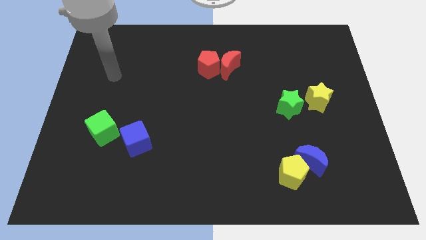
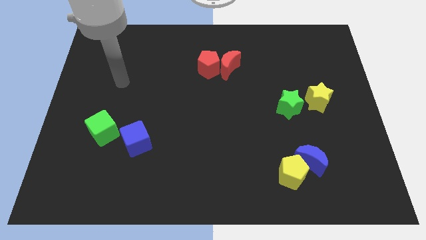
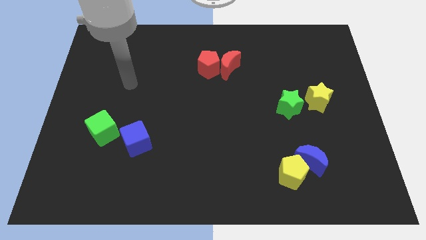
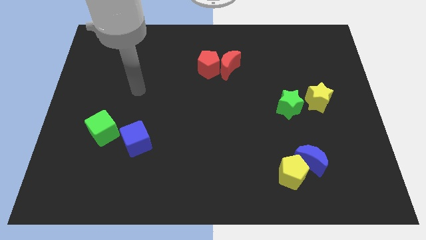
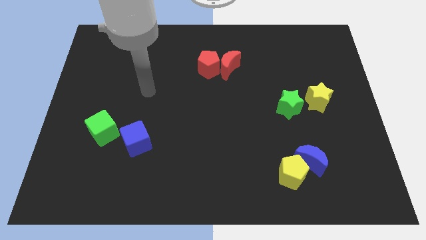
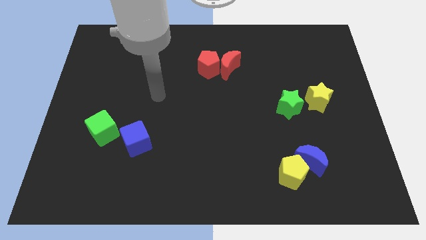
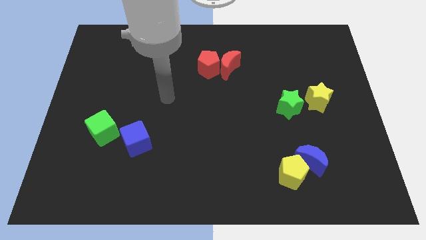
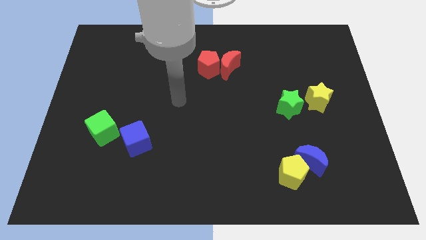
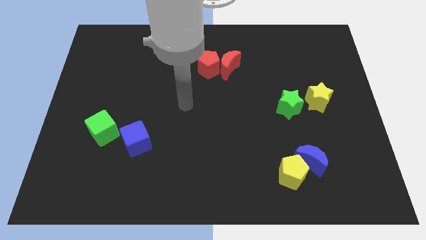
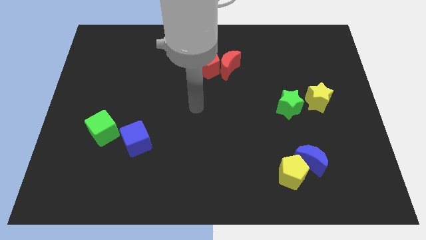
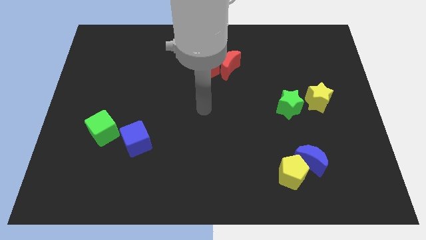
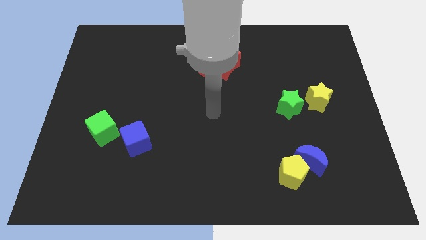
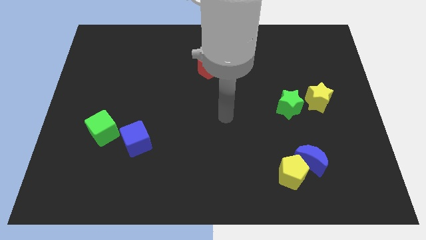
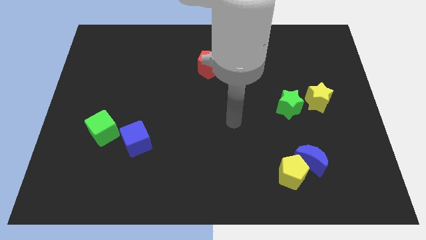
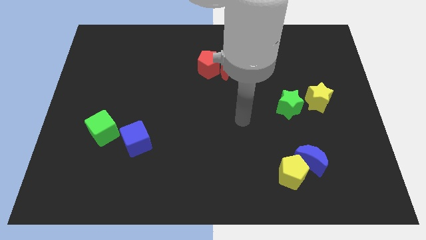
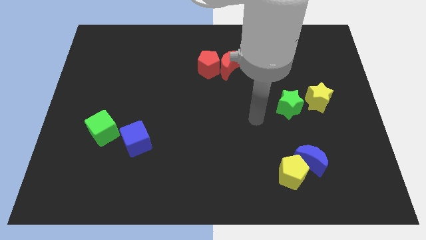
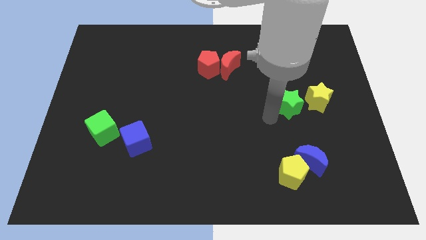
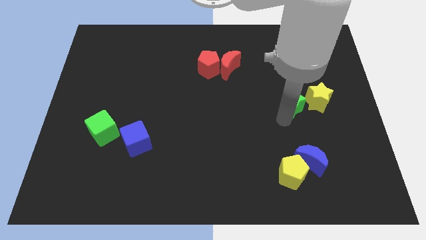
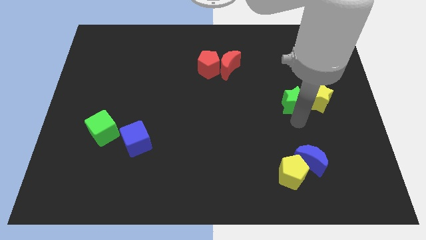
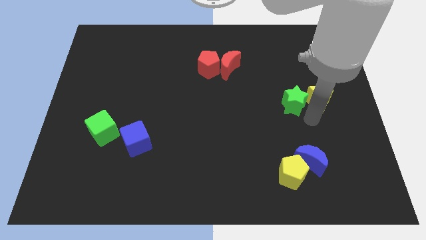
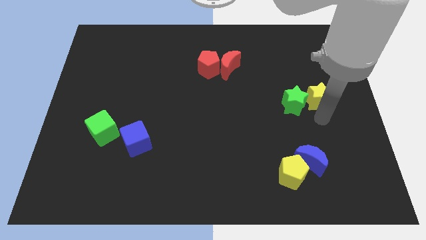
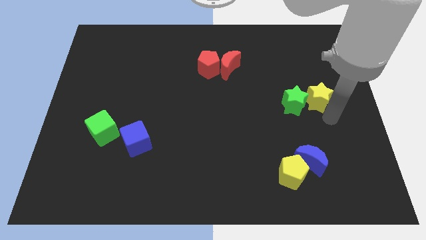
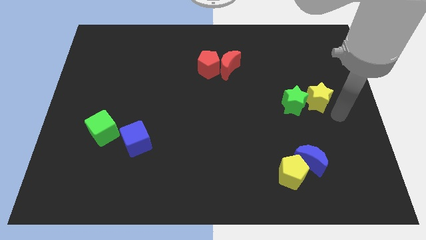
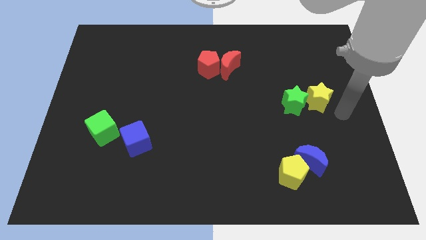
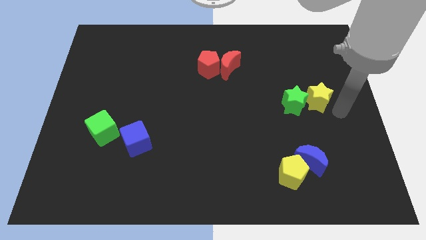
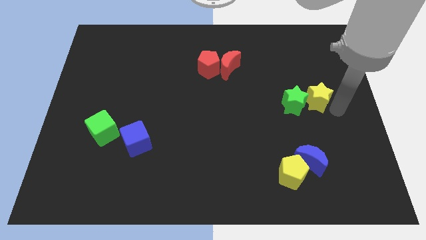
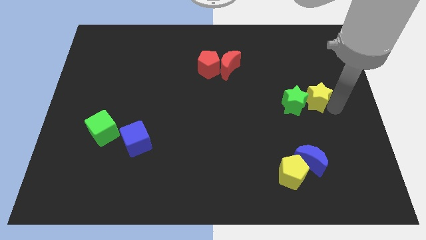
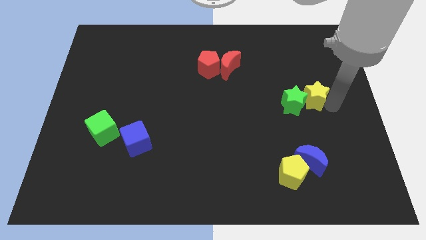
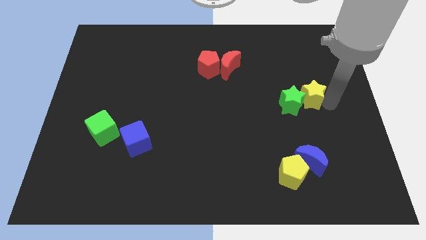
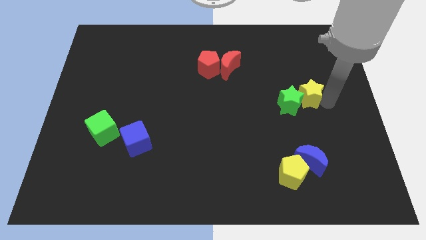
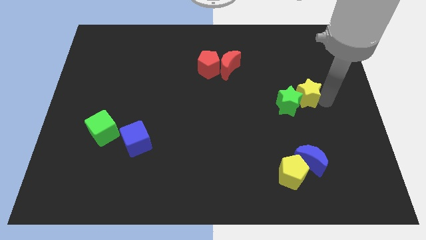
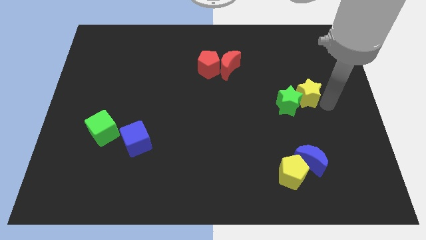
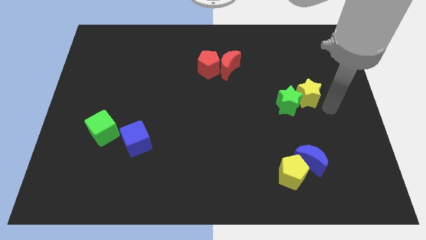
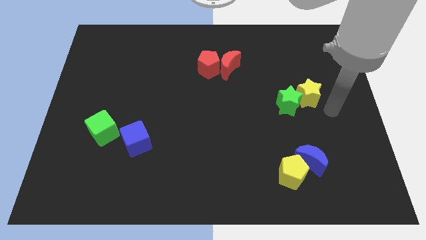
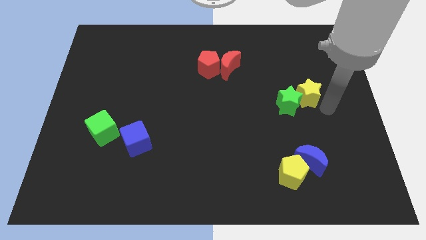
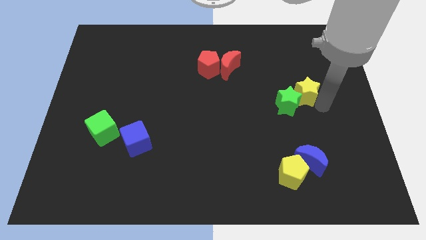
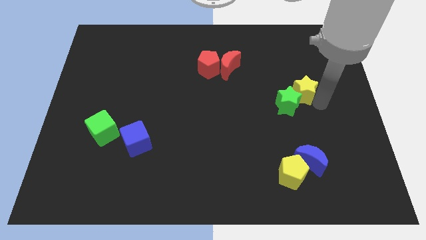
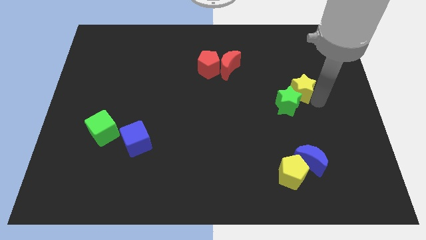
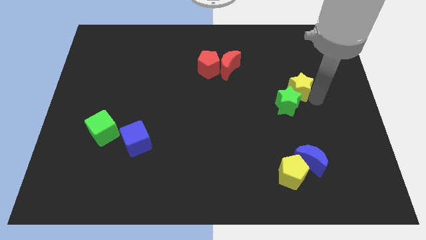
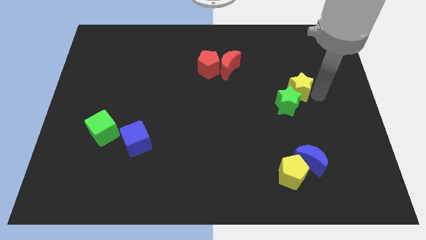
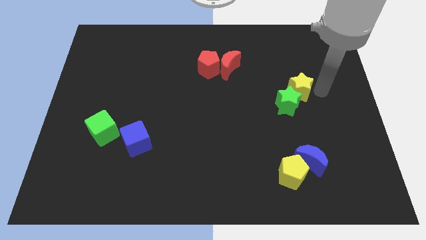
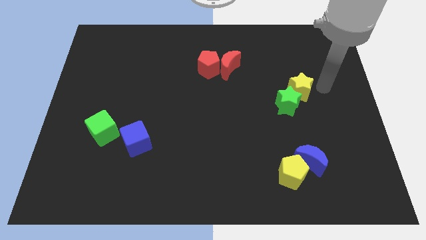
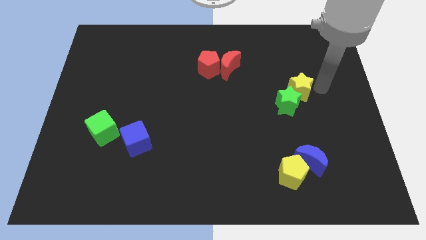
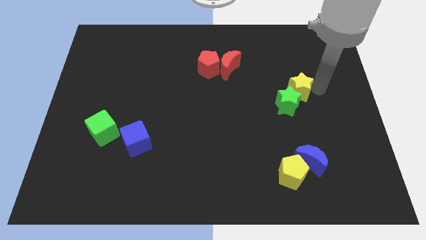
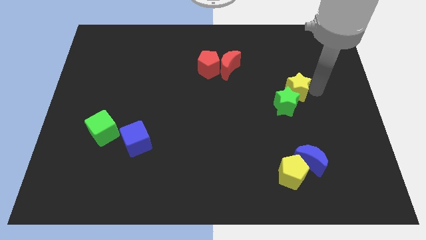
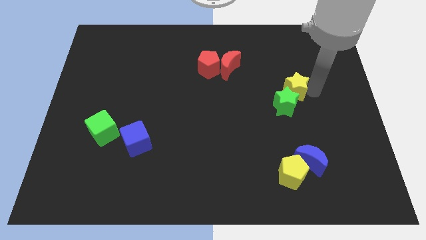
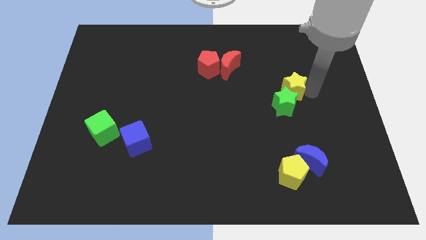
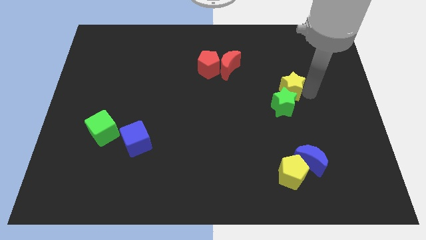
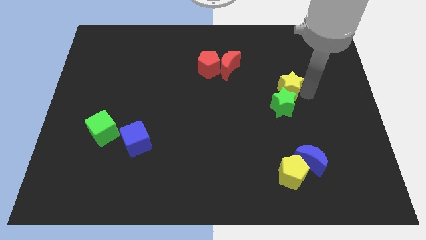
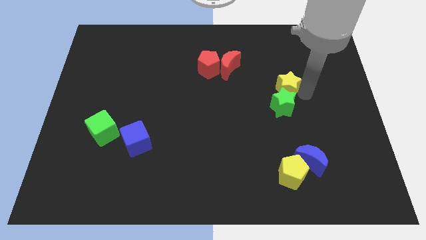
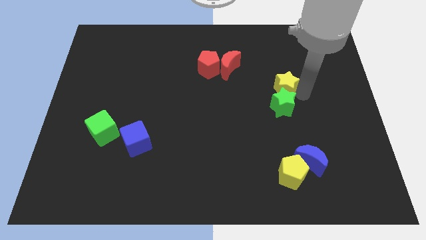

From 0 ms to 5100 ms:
push the yellow star to the left a bit

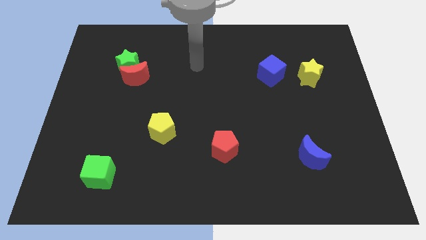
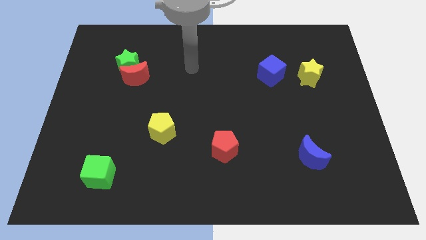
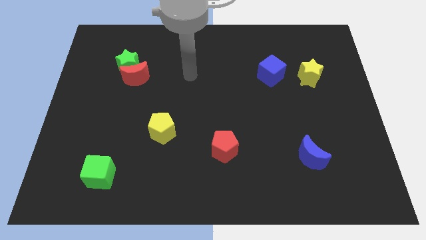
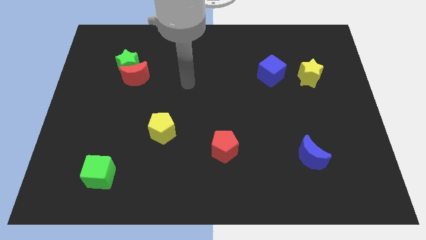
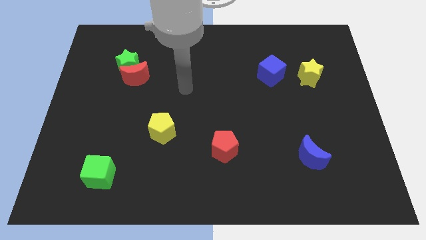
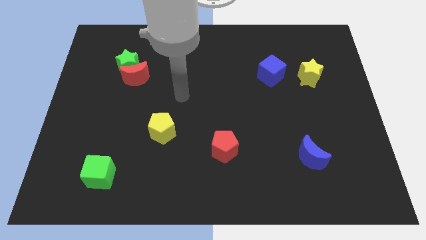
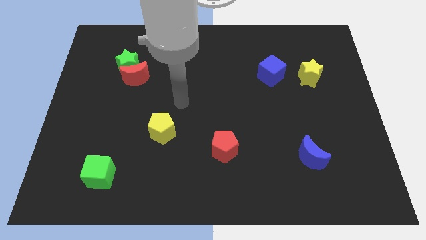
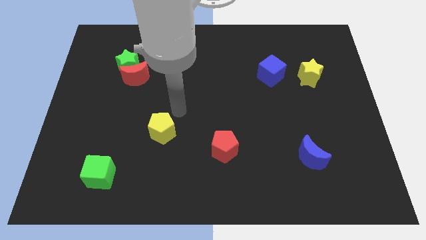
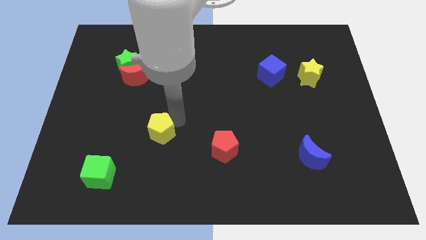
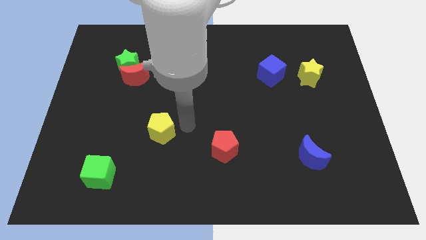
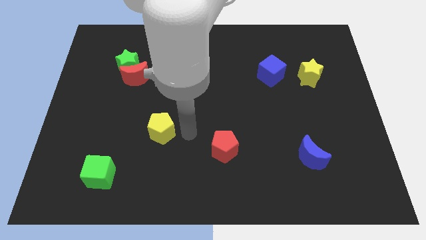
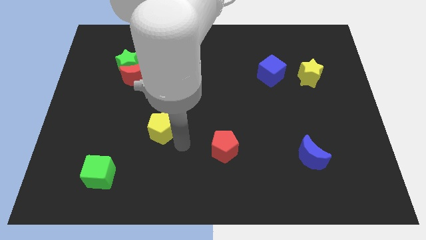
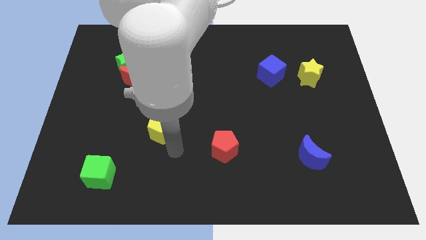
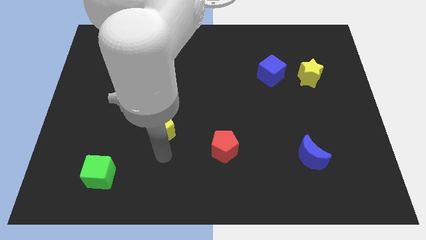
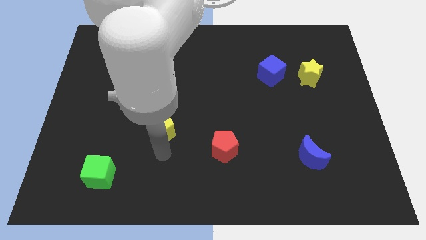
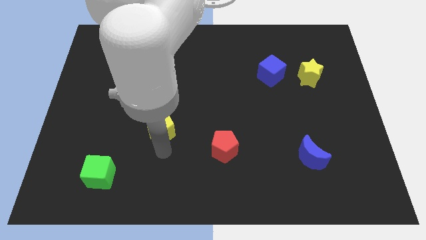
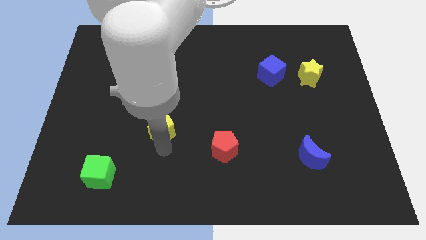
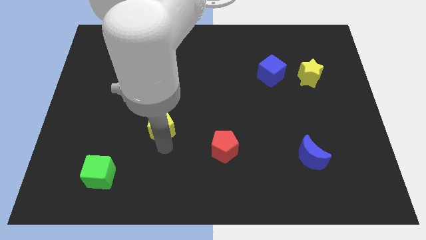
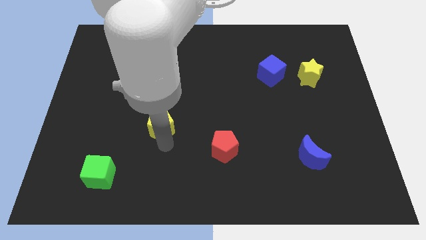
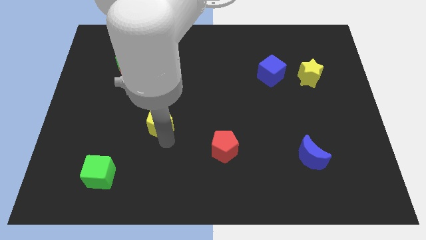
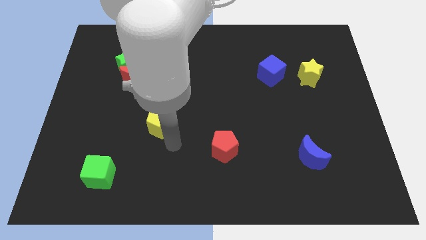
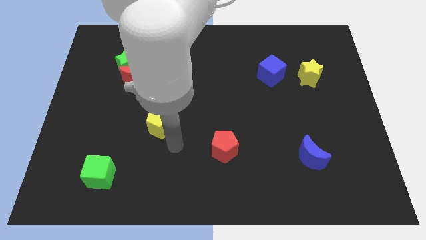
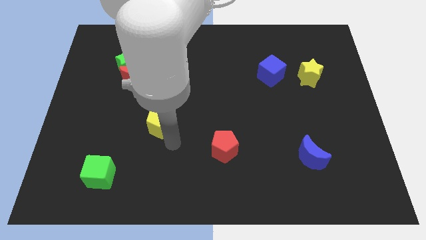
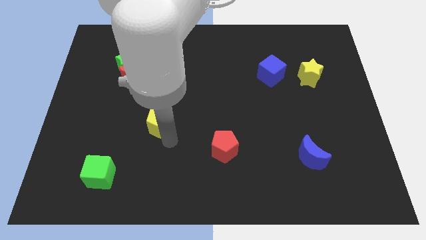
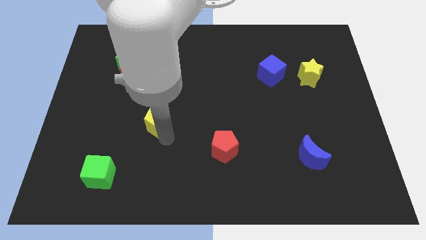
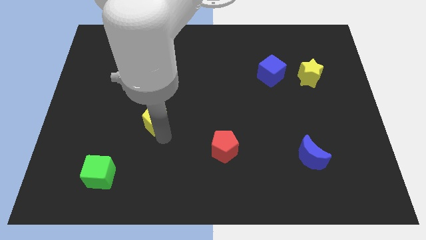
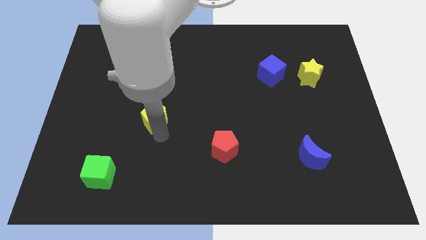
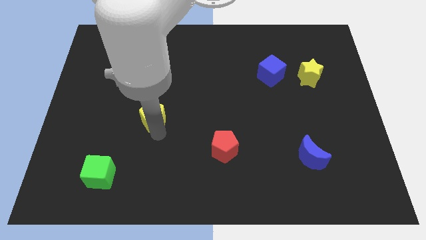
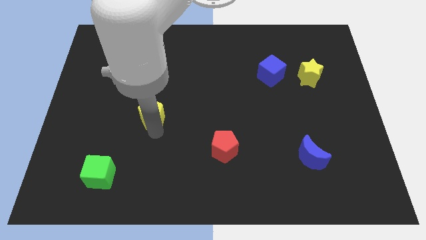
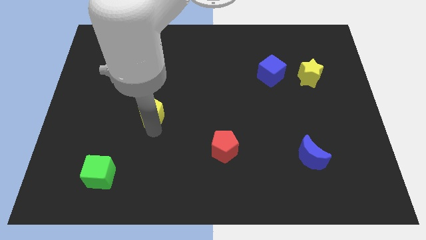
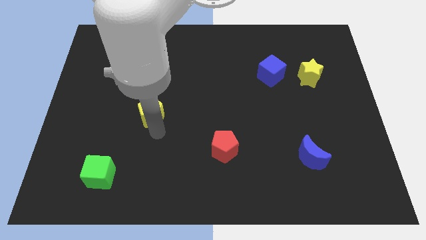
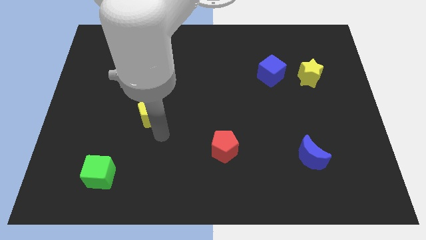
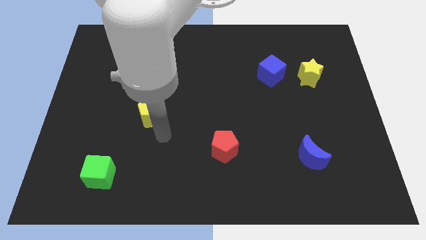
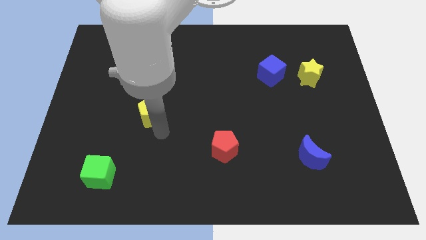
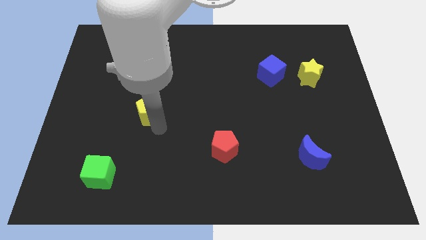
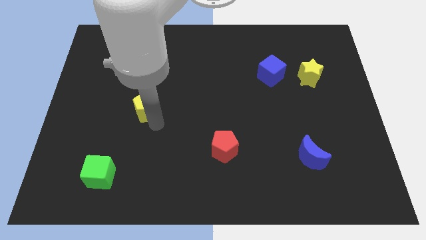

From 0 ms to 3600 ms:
slightly slide the yellow pentagon up and left
